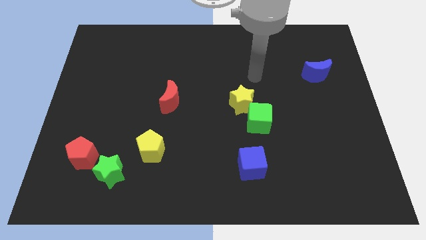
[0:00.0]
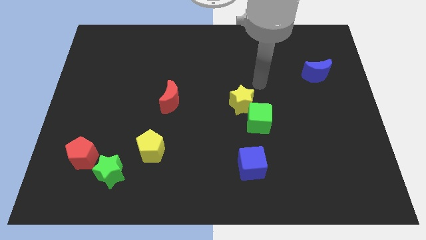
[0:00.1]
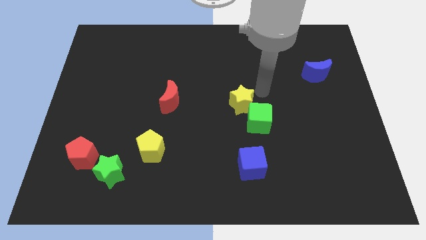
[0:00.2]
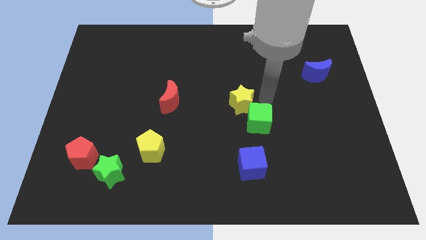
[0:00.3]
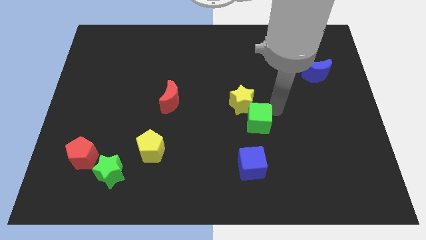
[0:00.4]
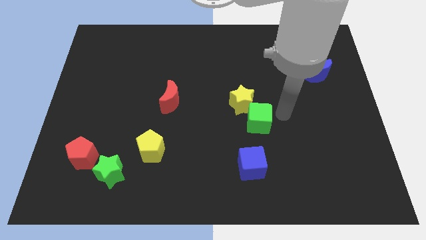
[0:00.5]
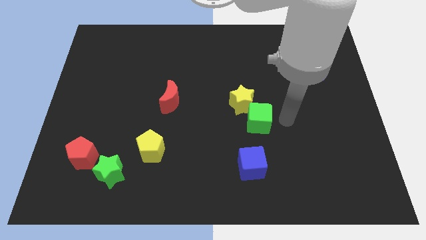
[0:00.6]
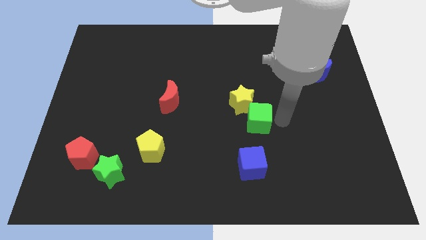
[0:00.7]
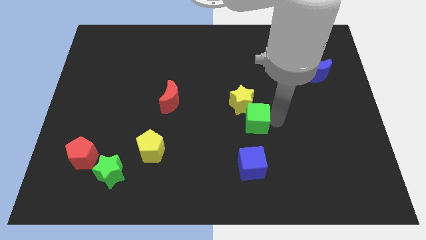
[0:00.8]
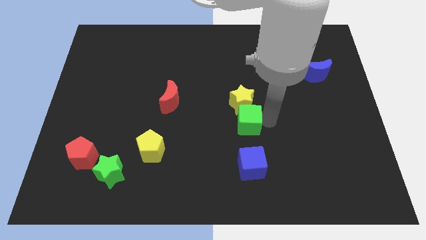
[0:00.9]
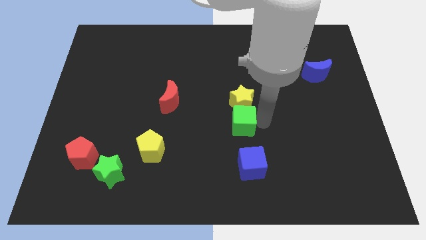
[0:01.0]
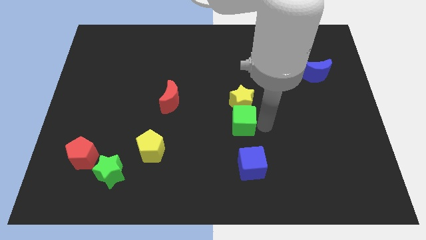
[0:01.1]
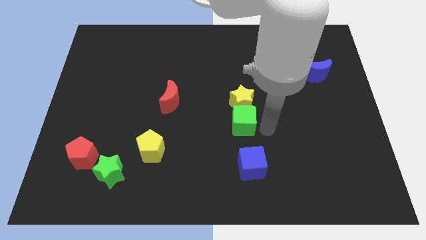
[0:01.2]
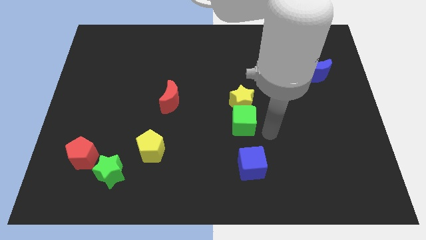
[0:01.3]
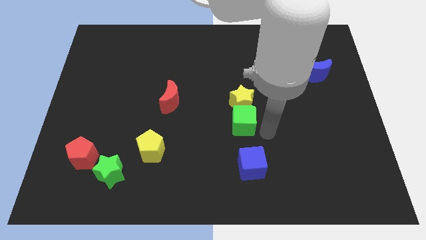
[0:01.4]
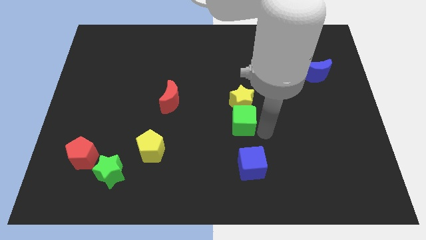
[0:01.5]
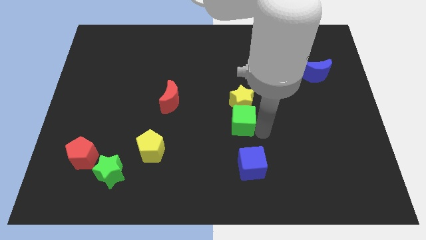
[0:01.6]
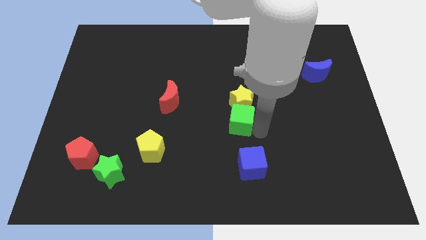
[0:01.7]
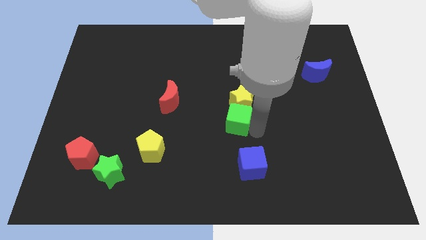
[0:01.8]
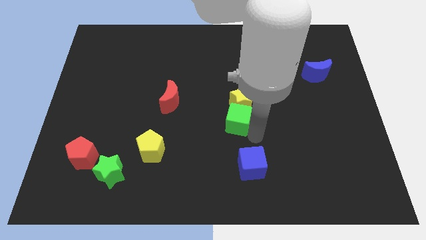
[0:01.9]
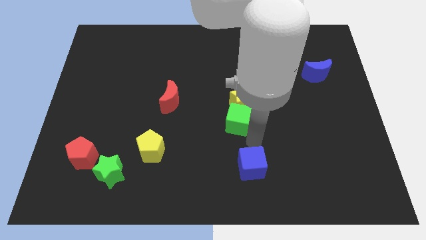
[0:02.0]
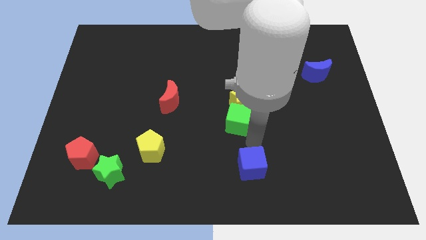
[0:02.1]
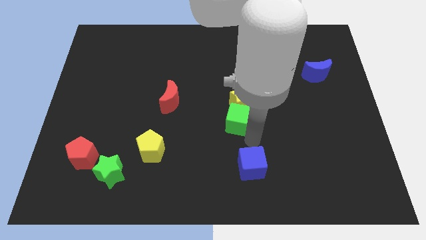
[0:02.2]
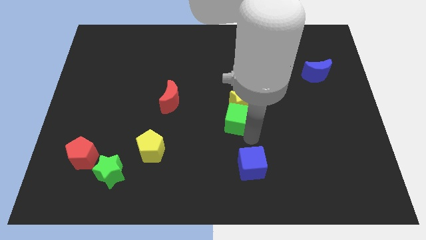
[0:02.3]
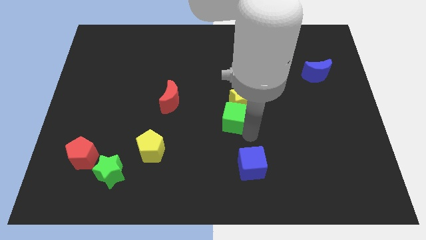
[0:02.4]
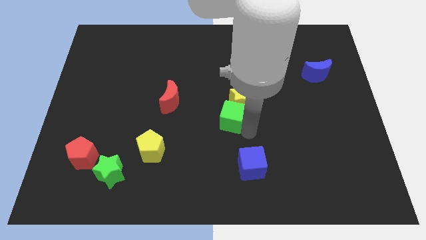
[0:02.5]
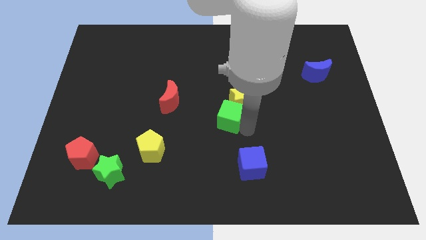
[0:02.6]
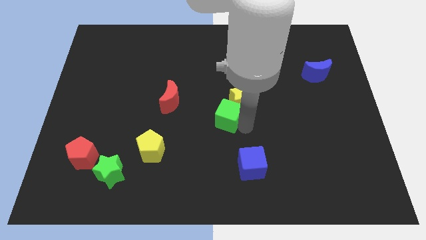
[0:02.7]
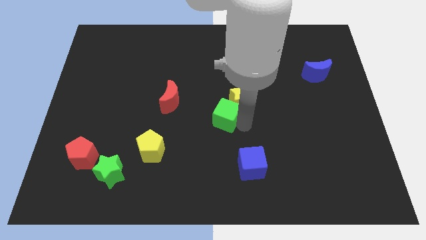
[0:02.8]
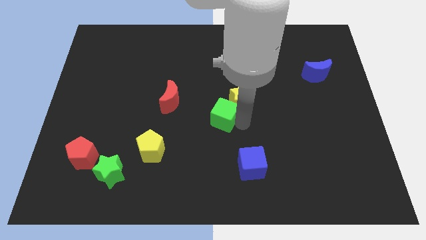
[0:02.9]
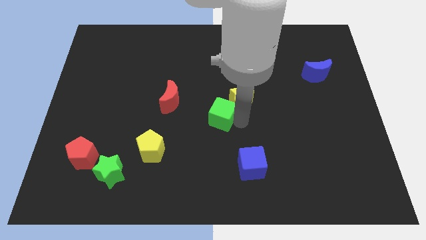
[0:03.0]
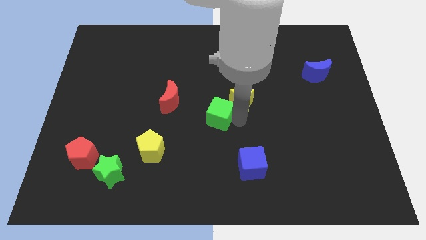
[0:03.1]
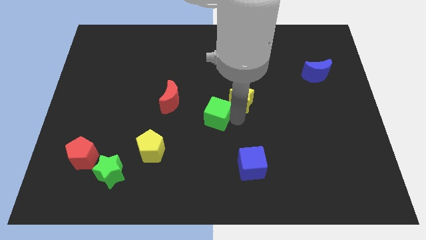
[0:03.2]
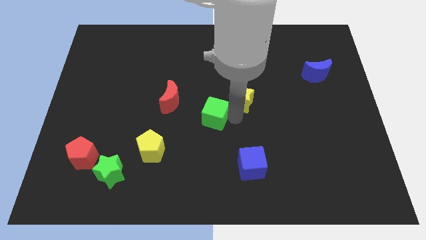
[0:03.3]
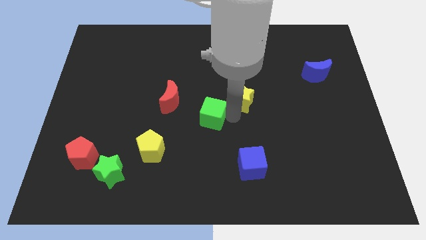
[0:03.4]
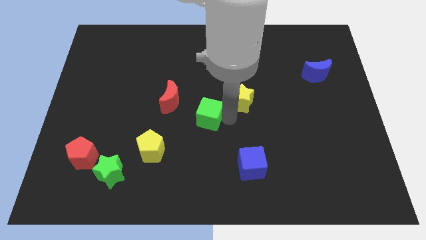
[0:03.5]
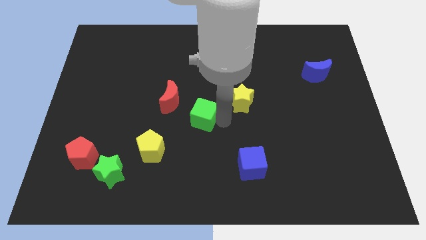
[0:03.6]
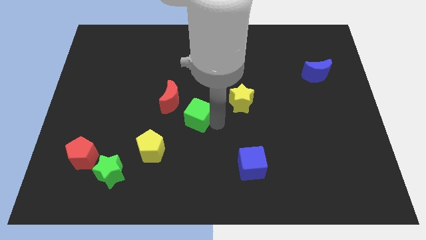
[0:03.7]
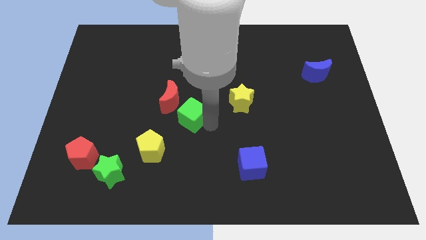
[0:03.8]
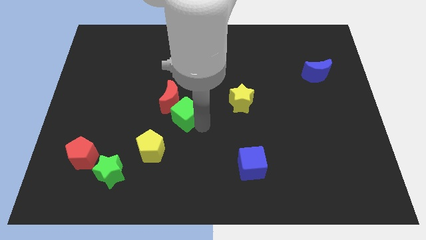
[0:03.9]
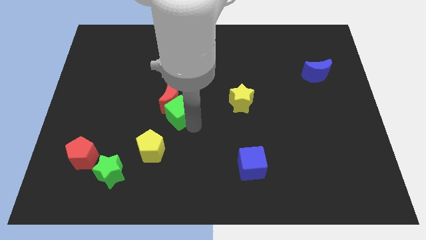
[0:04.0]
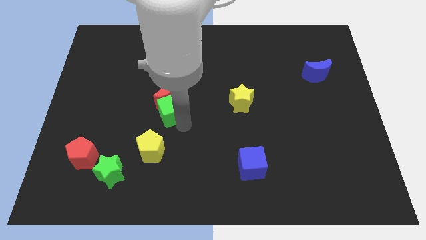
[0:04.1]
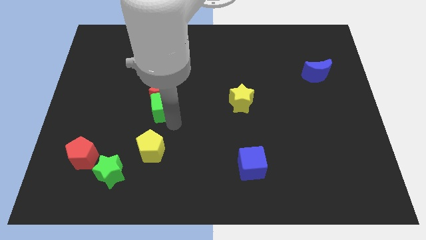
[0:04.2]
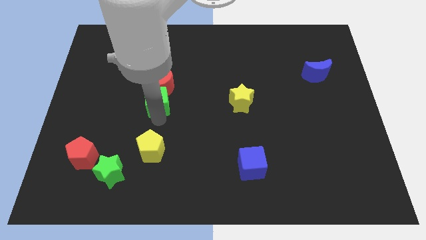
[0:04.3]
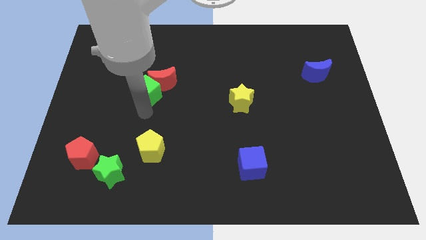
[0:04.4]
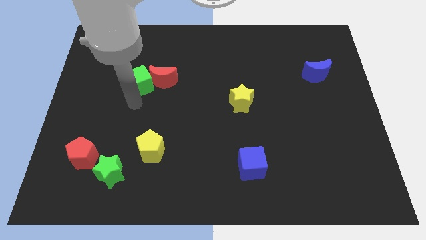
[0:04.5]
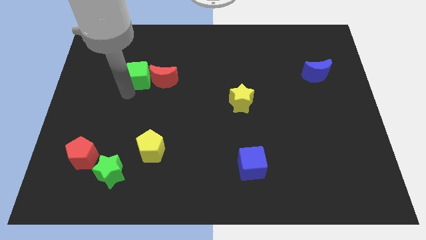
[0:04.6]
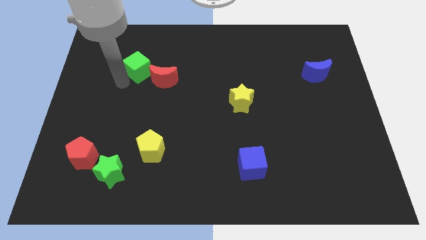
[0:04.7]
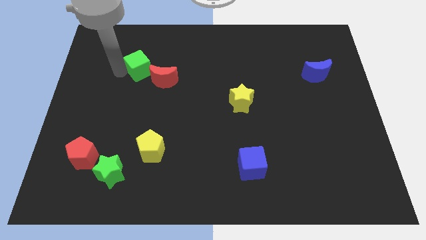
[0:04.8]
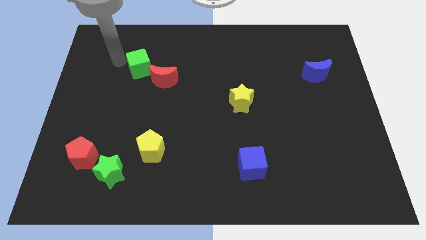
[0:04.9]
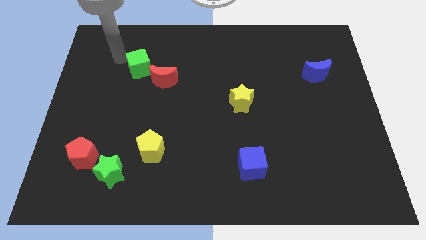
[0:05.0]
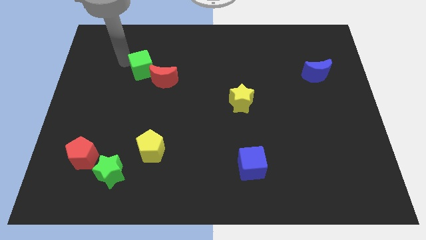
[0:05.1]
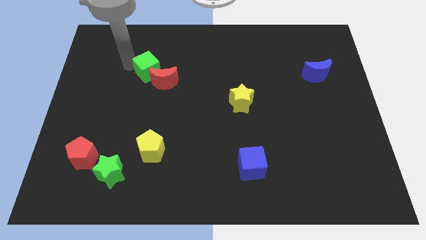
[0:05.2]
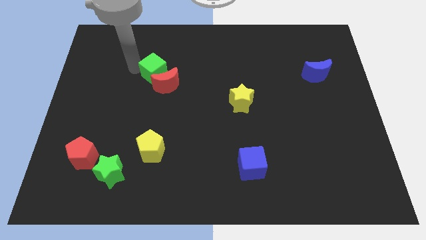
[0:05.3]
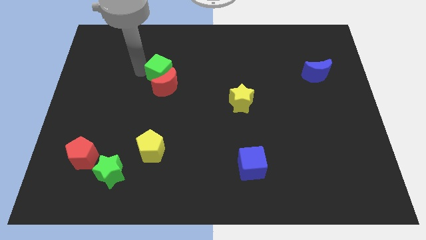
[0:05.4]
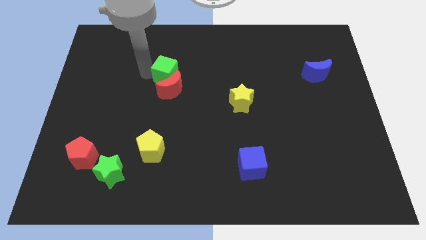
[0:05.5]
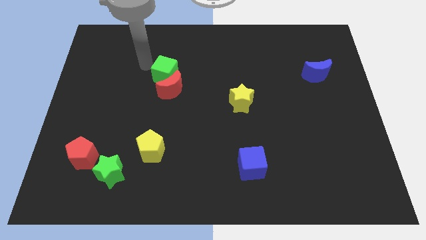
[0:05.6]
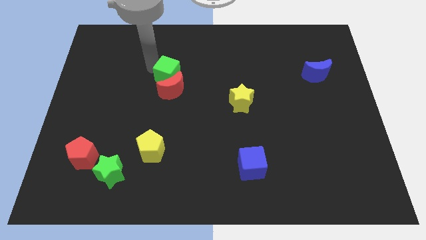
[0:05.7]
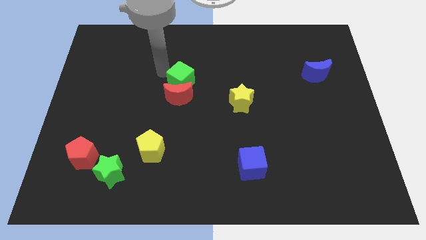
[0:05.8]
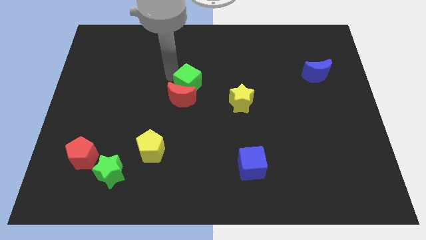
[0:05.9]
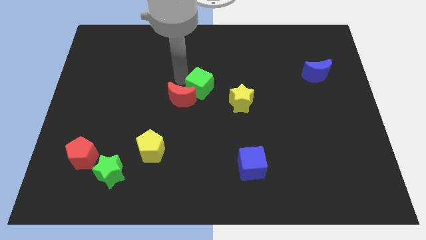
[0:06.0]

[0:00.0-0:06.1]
put the green cube to the top left side of the yellow star

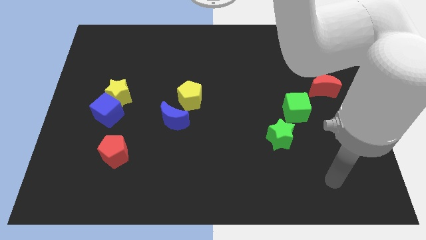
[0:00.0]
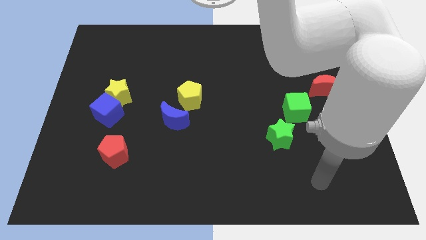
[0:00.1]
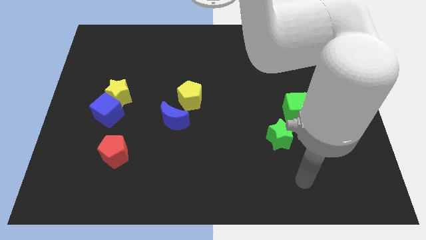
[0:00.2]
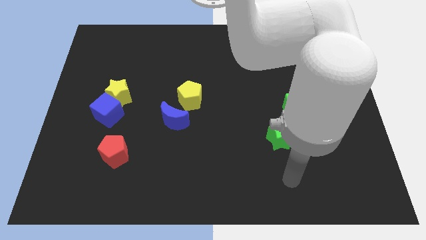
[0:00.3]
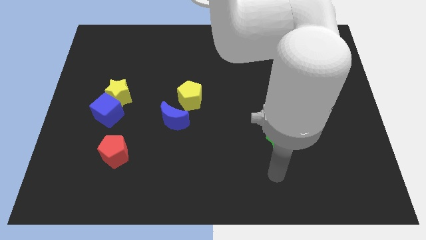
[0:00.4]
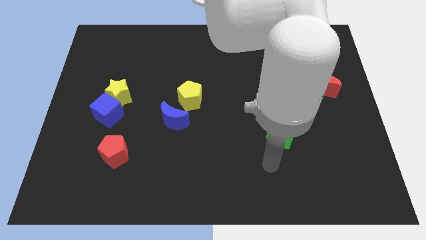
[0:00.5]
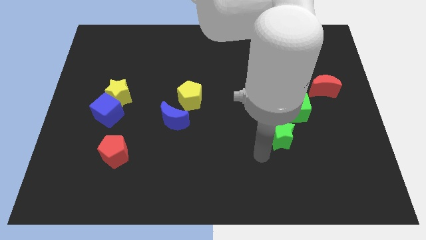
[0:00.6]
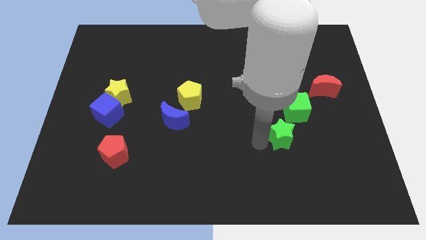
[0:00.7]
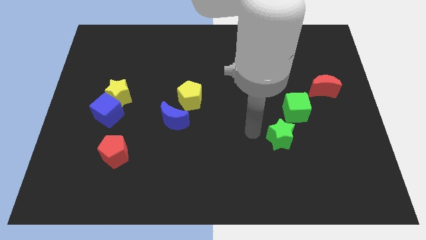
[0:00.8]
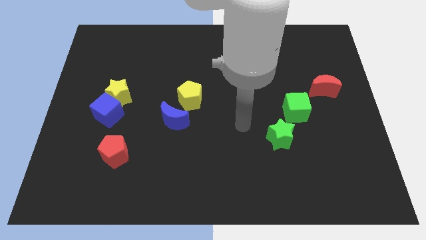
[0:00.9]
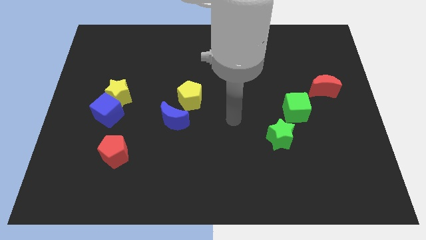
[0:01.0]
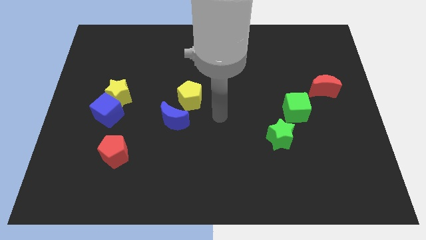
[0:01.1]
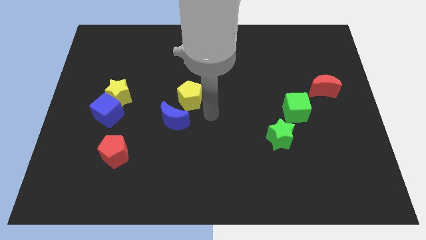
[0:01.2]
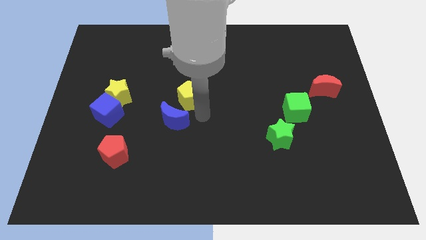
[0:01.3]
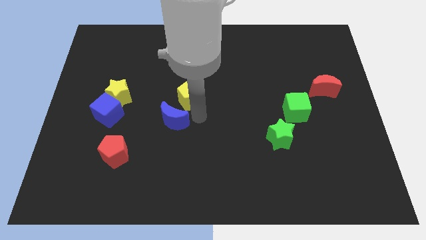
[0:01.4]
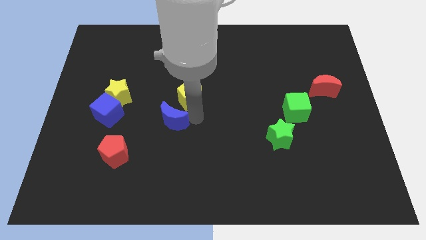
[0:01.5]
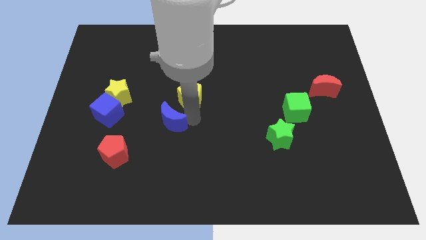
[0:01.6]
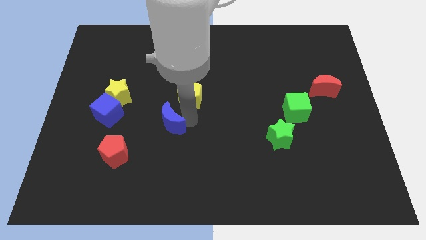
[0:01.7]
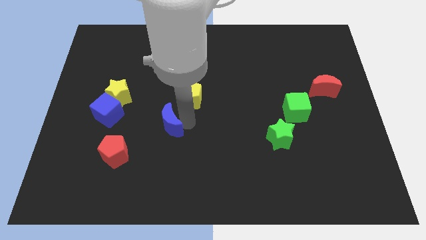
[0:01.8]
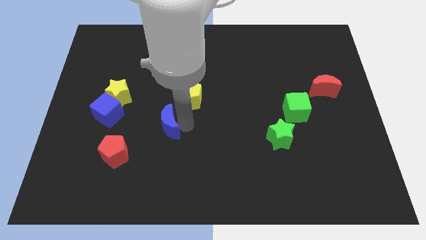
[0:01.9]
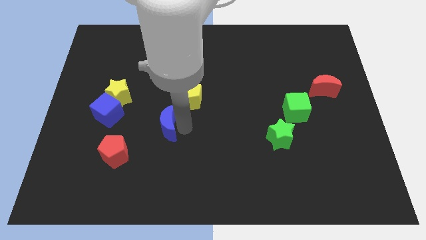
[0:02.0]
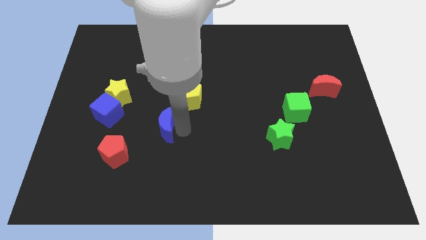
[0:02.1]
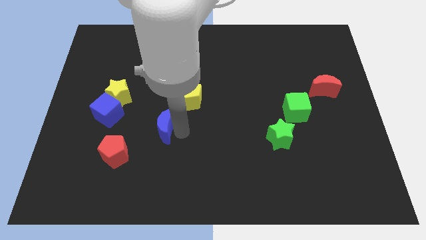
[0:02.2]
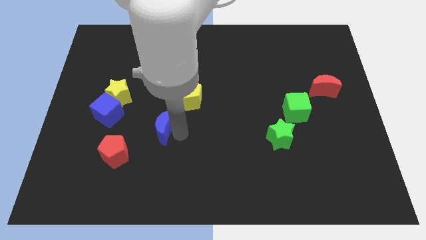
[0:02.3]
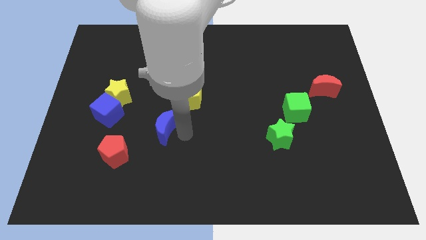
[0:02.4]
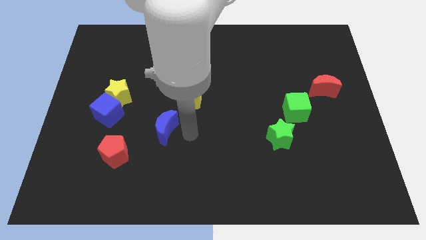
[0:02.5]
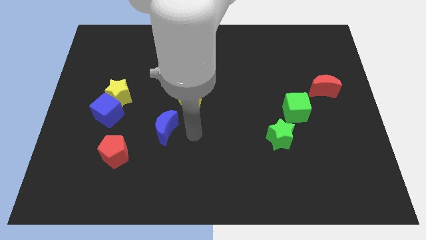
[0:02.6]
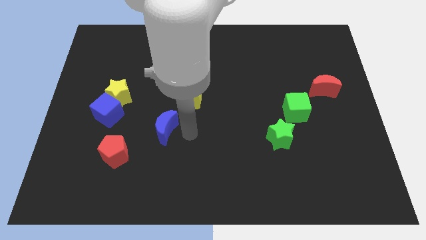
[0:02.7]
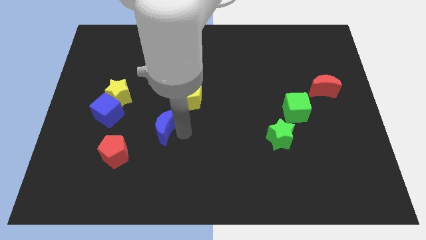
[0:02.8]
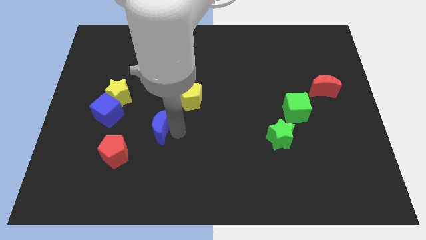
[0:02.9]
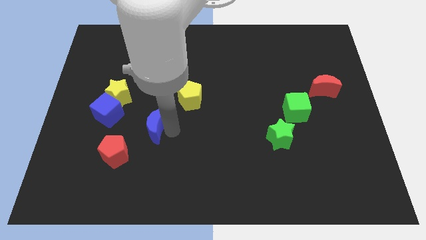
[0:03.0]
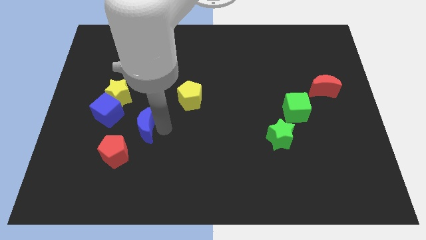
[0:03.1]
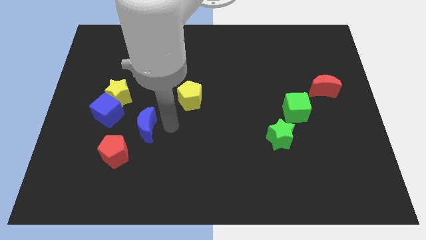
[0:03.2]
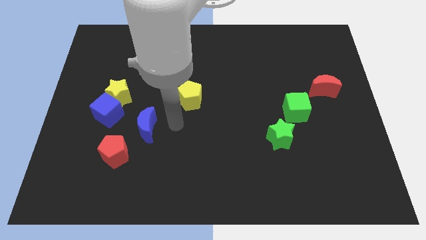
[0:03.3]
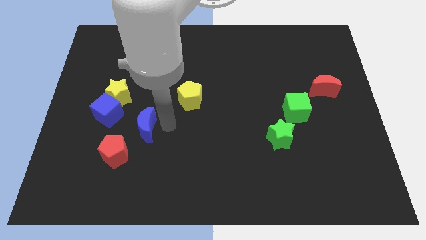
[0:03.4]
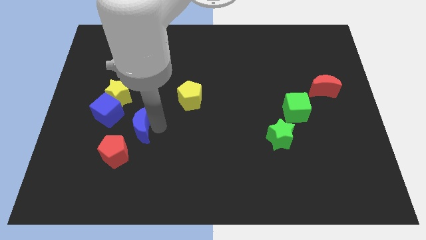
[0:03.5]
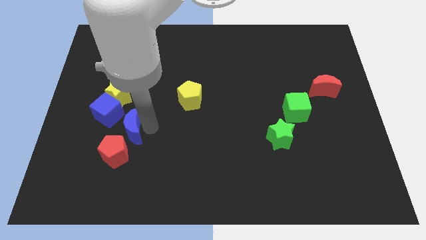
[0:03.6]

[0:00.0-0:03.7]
put the blue moon below the yellow star
